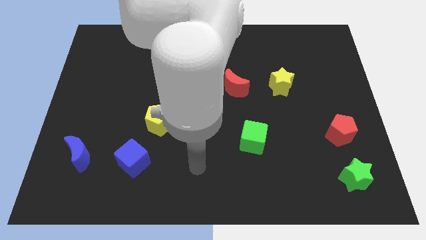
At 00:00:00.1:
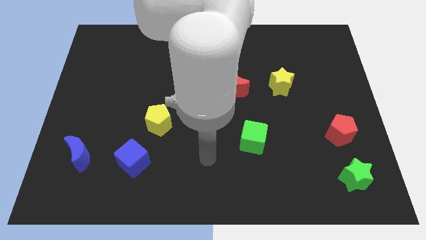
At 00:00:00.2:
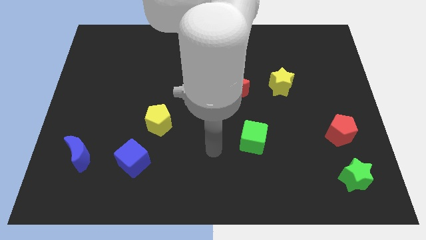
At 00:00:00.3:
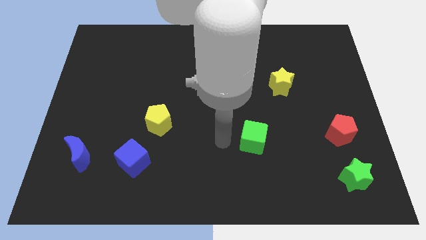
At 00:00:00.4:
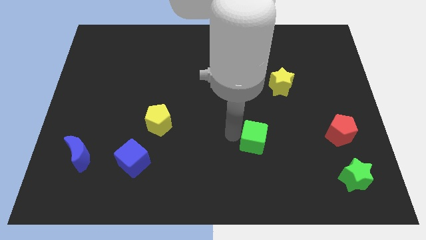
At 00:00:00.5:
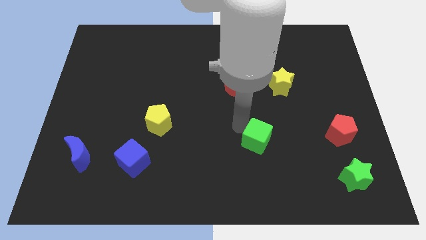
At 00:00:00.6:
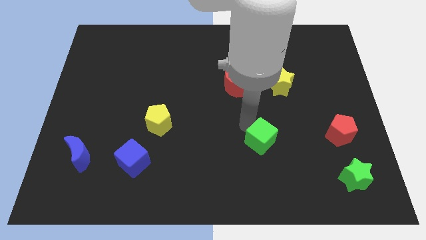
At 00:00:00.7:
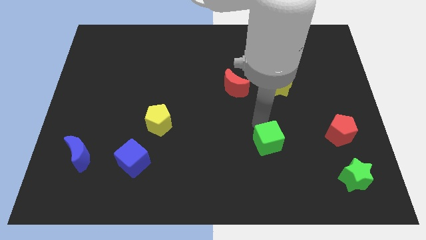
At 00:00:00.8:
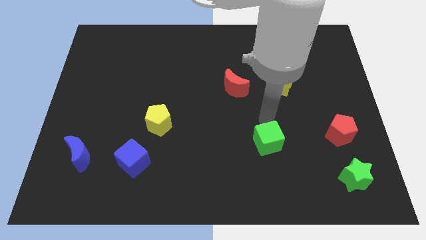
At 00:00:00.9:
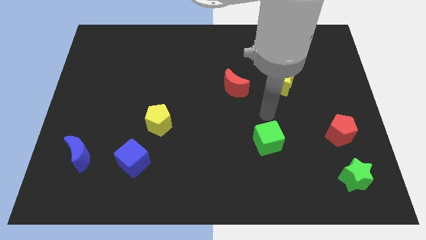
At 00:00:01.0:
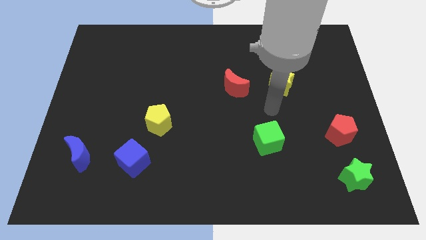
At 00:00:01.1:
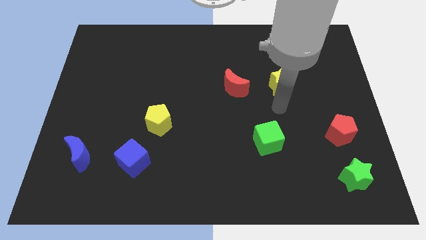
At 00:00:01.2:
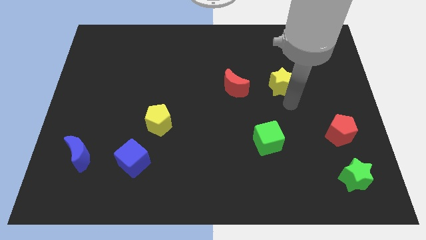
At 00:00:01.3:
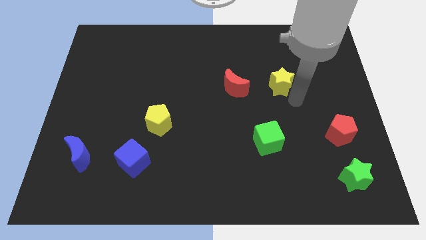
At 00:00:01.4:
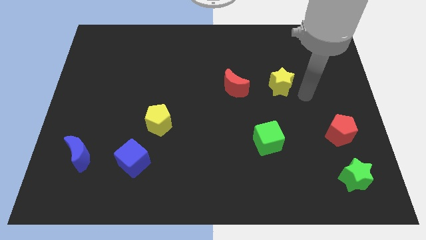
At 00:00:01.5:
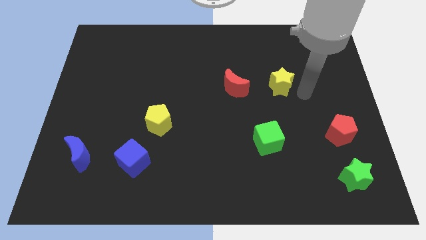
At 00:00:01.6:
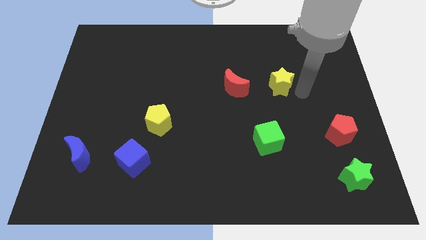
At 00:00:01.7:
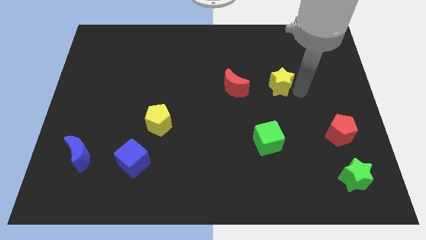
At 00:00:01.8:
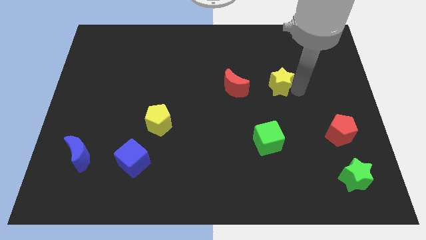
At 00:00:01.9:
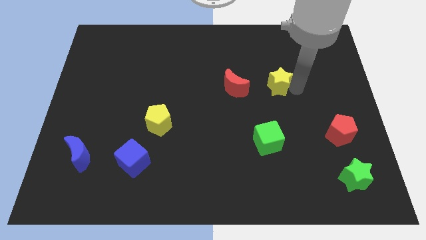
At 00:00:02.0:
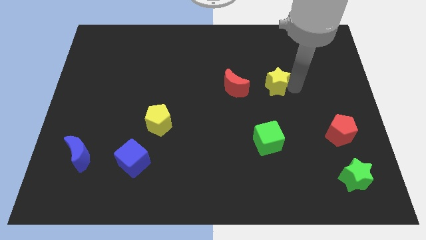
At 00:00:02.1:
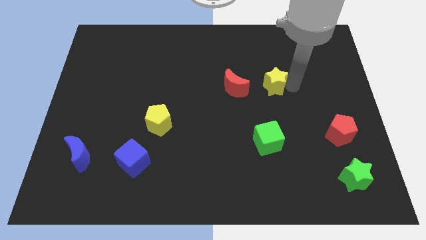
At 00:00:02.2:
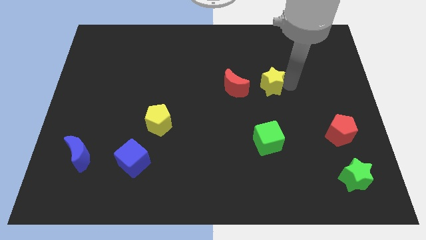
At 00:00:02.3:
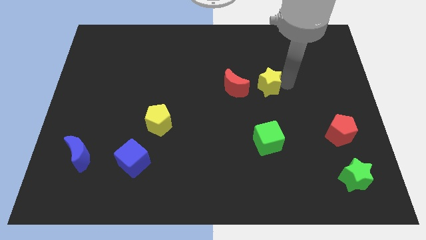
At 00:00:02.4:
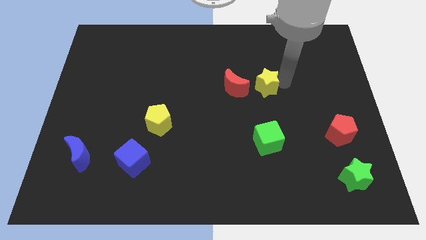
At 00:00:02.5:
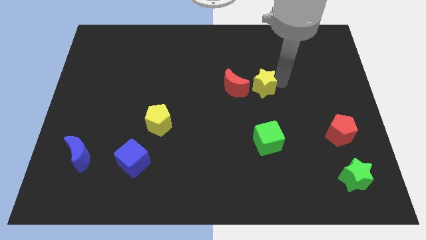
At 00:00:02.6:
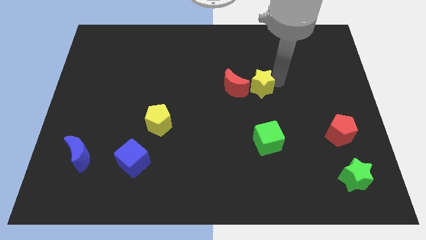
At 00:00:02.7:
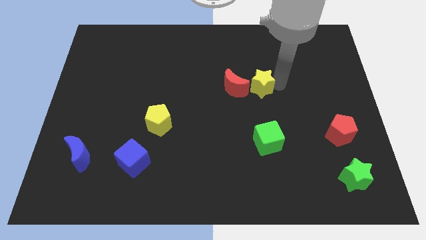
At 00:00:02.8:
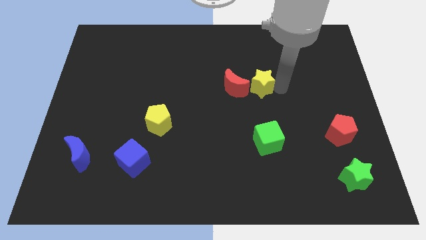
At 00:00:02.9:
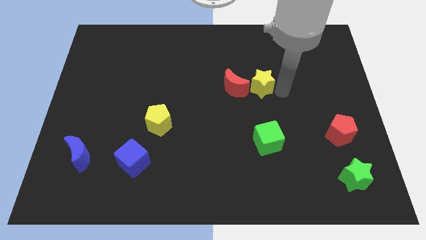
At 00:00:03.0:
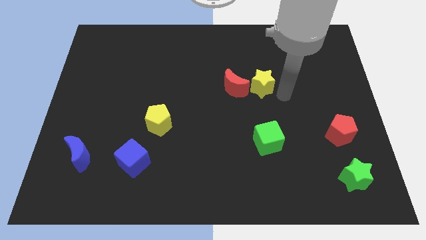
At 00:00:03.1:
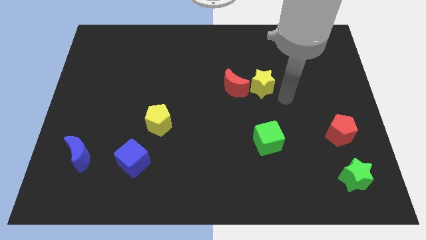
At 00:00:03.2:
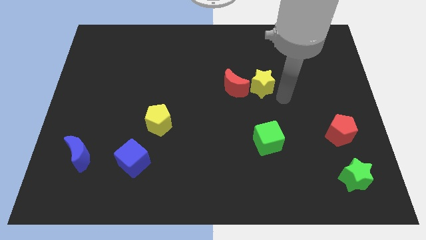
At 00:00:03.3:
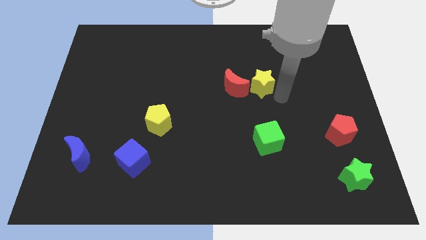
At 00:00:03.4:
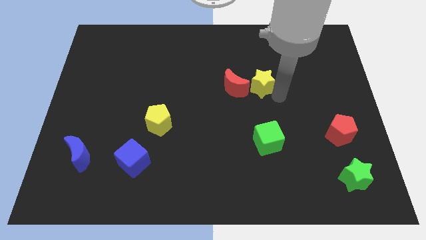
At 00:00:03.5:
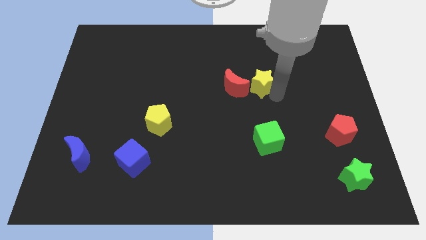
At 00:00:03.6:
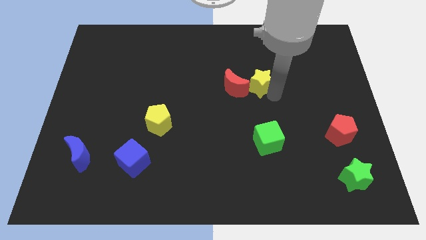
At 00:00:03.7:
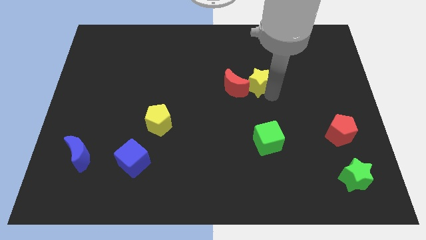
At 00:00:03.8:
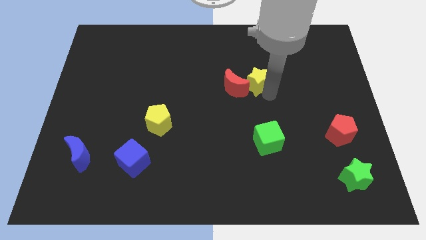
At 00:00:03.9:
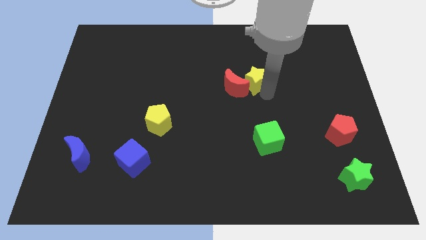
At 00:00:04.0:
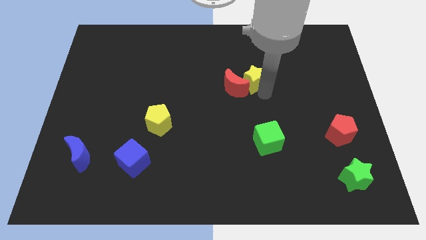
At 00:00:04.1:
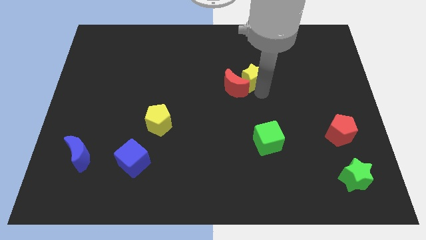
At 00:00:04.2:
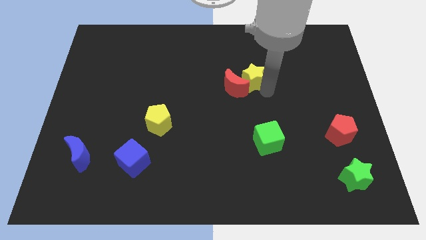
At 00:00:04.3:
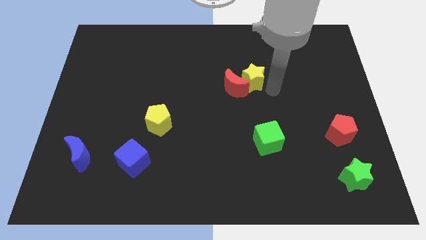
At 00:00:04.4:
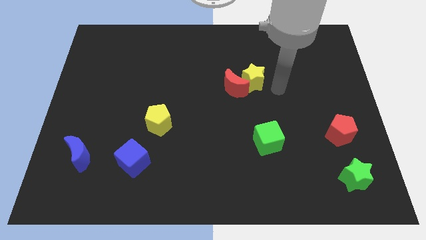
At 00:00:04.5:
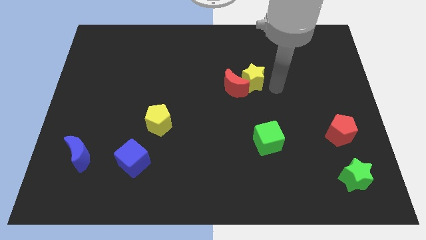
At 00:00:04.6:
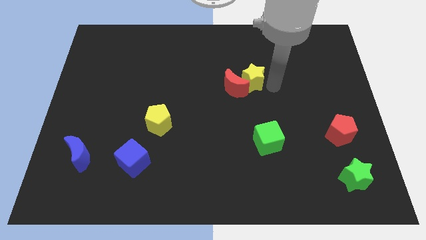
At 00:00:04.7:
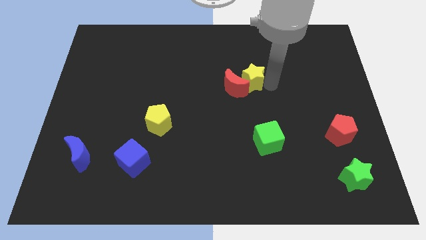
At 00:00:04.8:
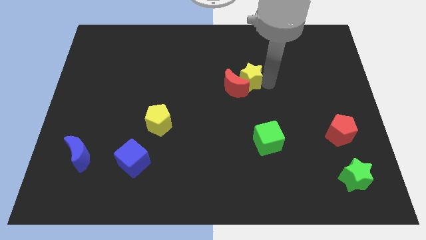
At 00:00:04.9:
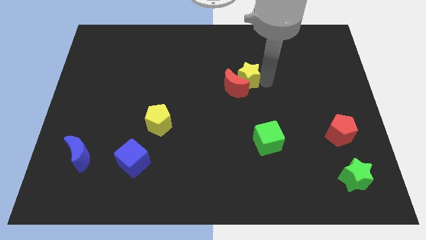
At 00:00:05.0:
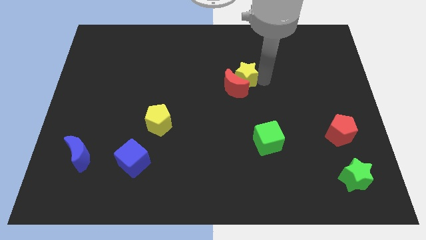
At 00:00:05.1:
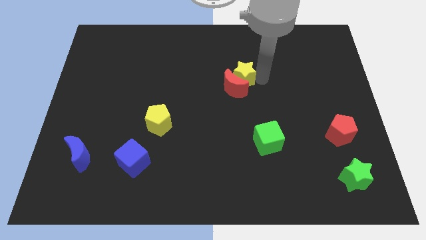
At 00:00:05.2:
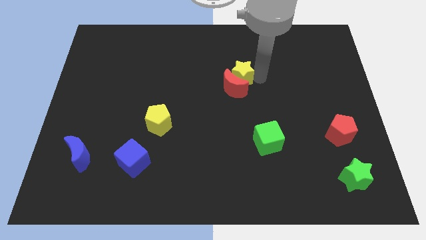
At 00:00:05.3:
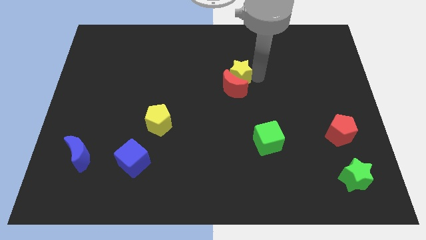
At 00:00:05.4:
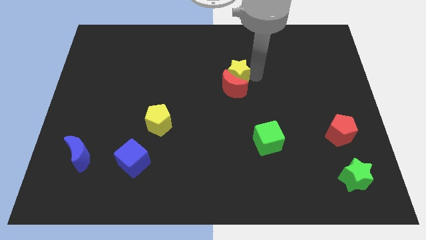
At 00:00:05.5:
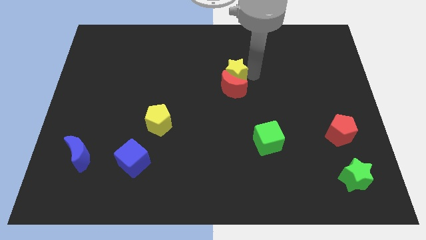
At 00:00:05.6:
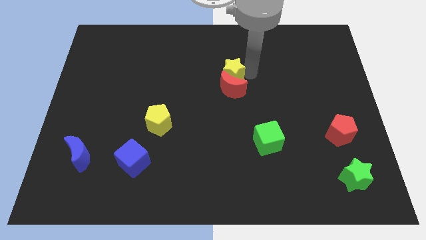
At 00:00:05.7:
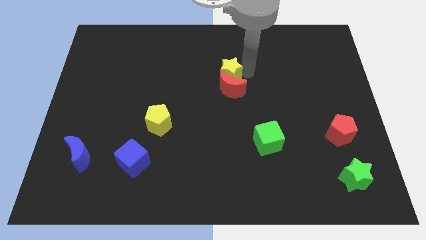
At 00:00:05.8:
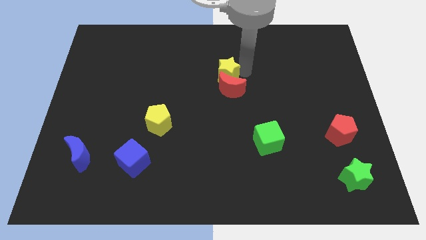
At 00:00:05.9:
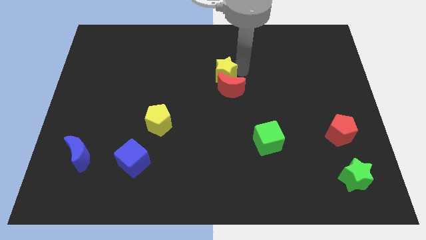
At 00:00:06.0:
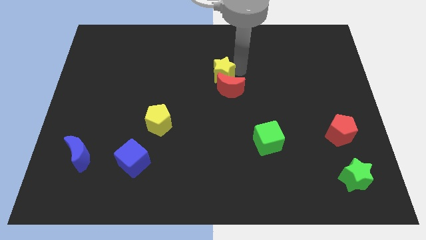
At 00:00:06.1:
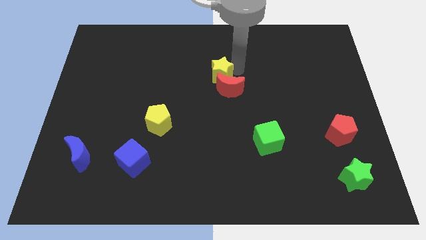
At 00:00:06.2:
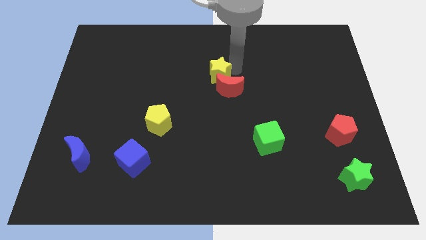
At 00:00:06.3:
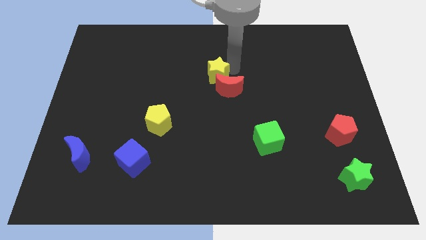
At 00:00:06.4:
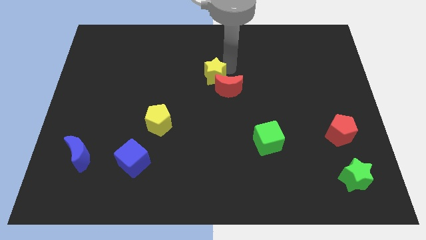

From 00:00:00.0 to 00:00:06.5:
slide the yellow star to the left of the red moon

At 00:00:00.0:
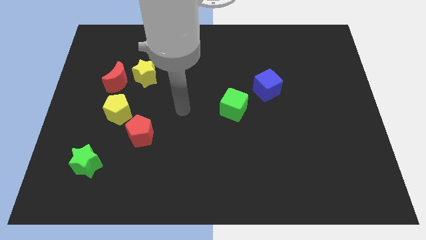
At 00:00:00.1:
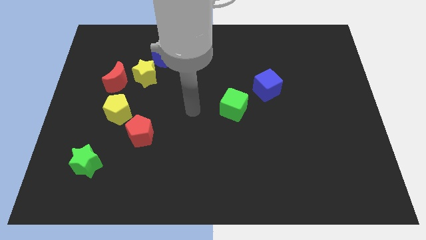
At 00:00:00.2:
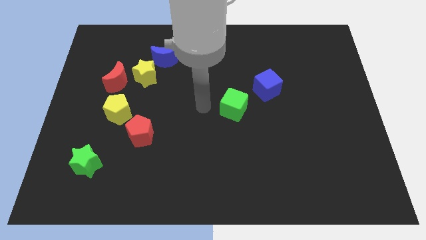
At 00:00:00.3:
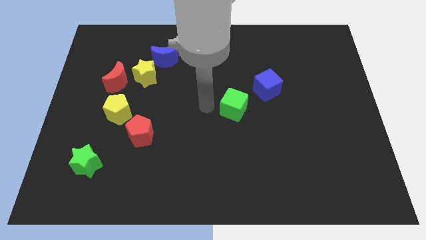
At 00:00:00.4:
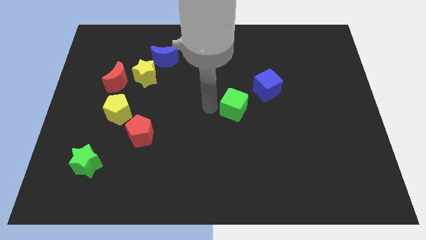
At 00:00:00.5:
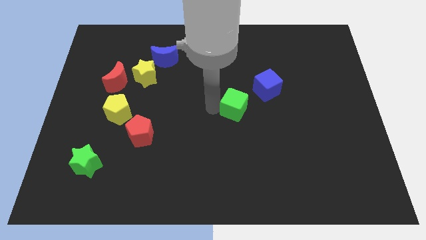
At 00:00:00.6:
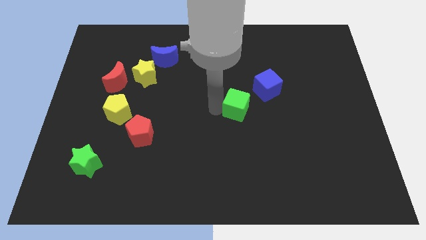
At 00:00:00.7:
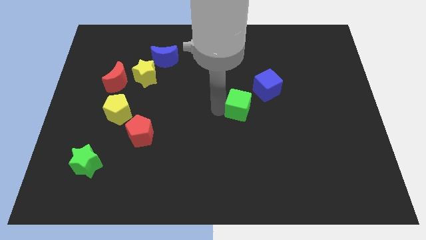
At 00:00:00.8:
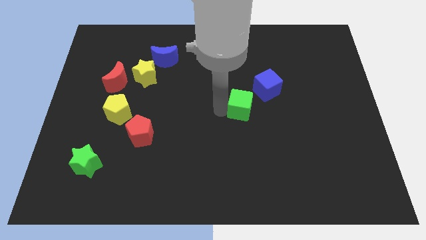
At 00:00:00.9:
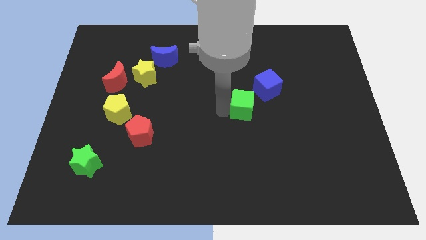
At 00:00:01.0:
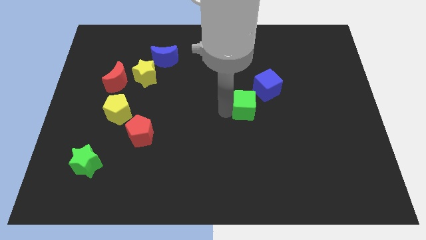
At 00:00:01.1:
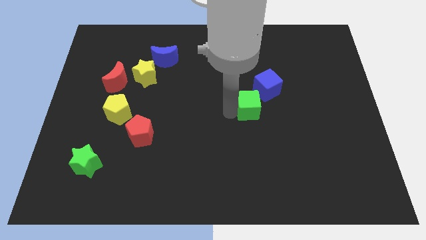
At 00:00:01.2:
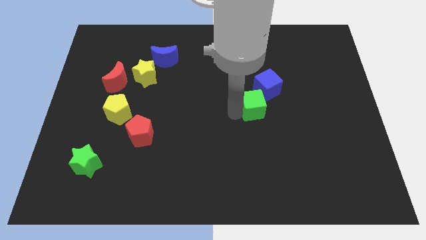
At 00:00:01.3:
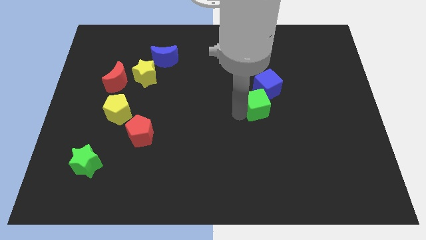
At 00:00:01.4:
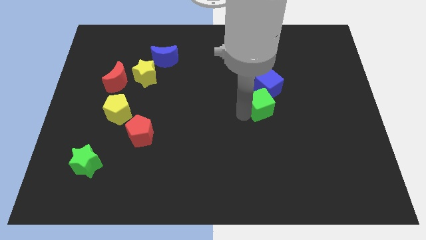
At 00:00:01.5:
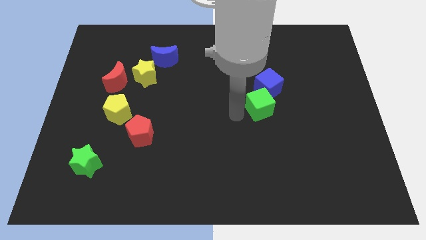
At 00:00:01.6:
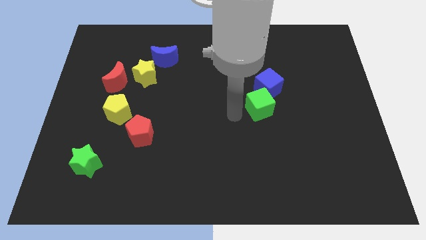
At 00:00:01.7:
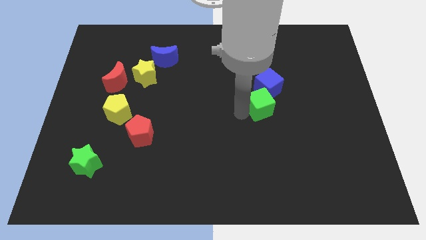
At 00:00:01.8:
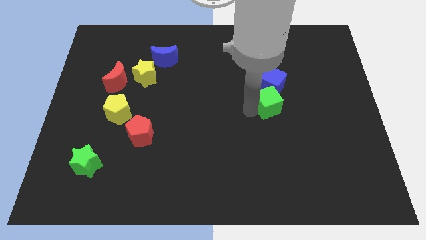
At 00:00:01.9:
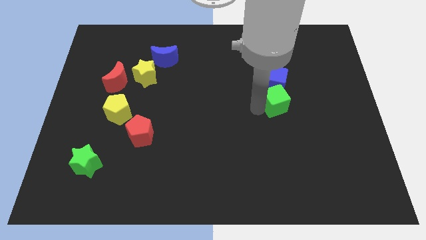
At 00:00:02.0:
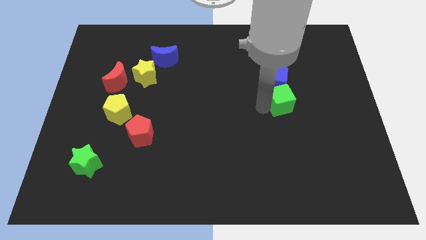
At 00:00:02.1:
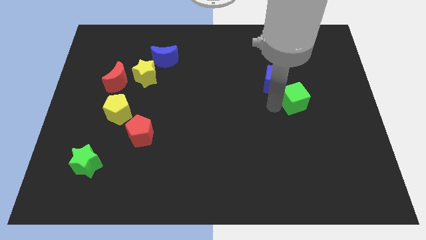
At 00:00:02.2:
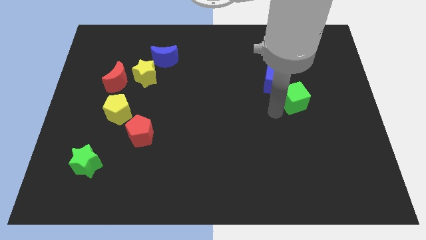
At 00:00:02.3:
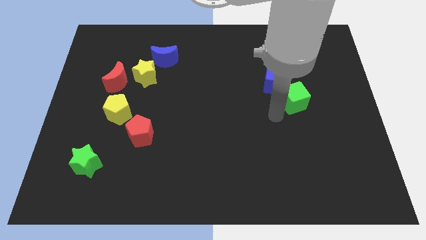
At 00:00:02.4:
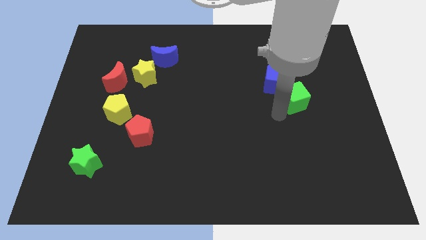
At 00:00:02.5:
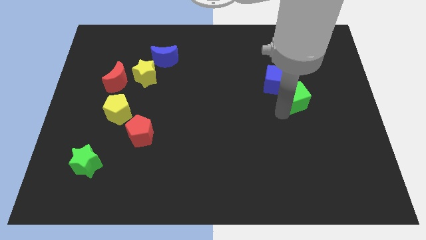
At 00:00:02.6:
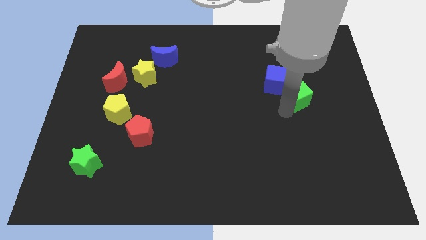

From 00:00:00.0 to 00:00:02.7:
slide the green cube just right of the blue cube
